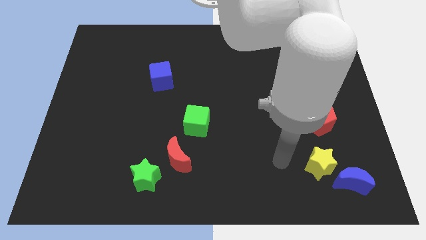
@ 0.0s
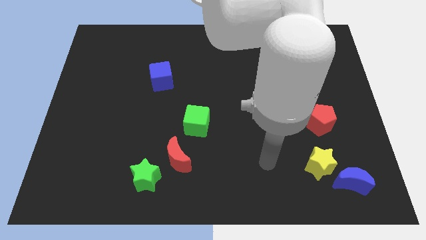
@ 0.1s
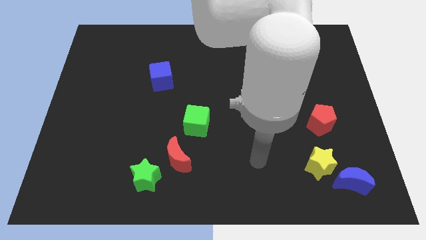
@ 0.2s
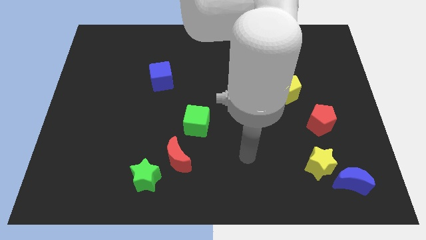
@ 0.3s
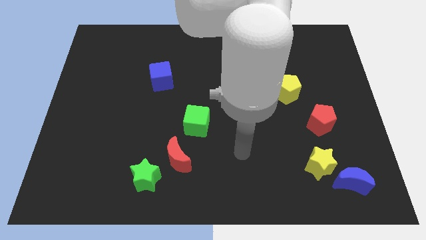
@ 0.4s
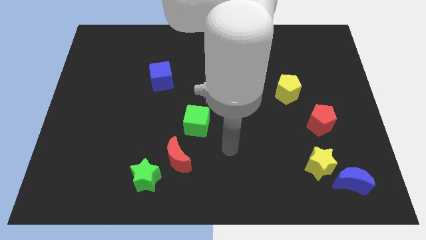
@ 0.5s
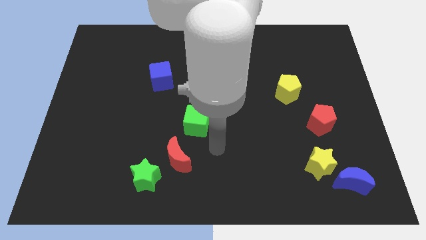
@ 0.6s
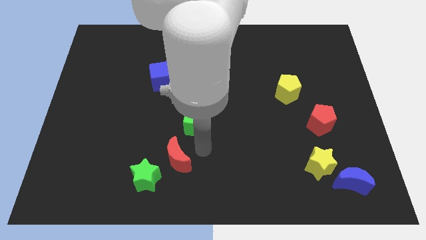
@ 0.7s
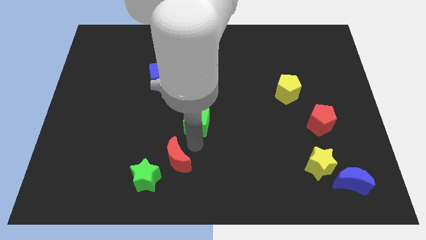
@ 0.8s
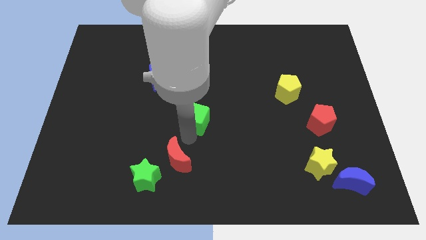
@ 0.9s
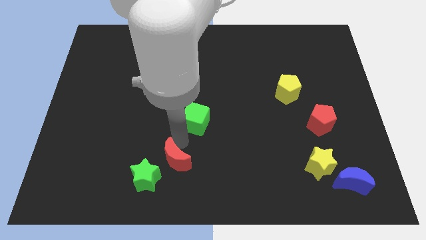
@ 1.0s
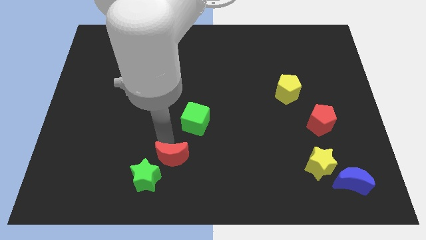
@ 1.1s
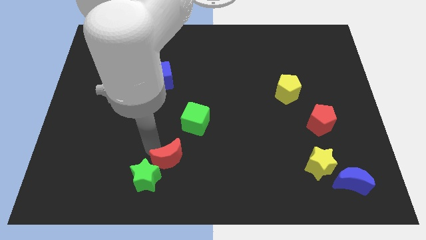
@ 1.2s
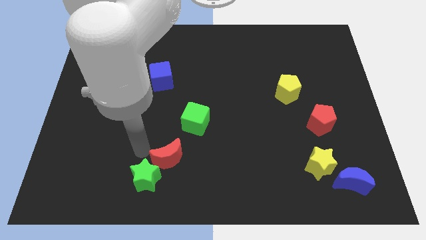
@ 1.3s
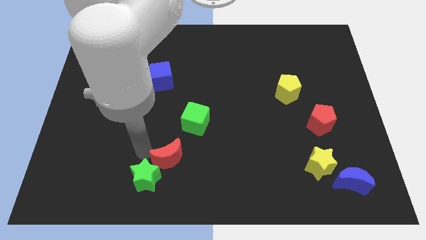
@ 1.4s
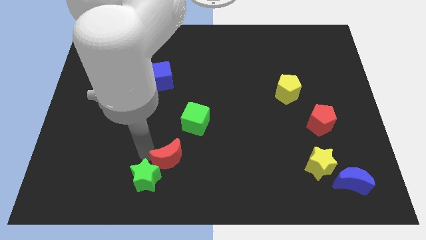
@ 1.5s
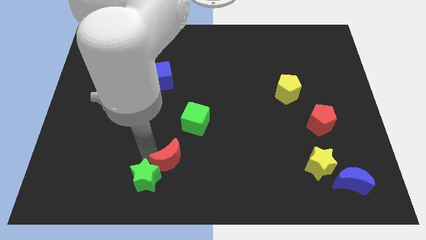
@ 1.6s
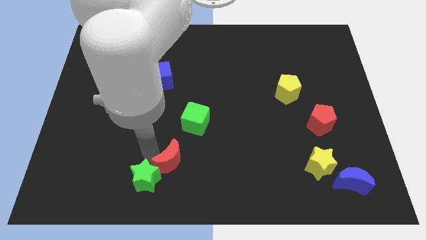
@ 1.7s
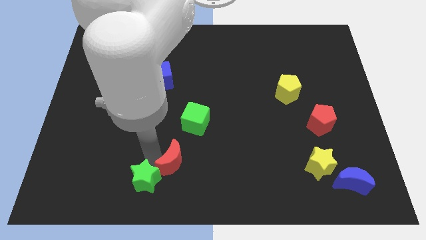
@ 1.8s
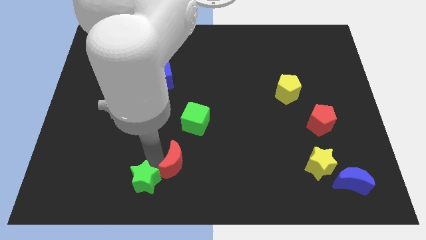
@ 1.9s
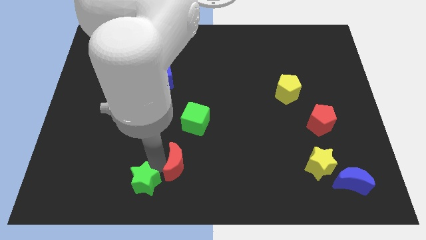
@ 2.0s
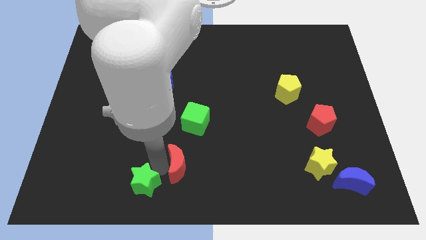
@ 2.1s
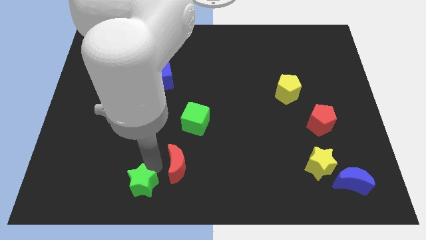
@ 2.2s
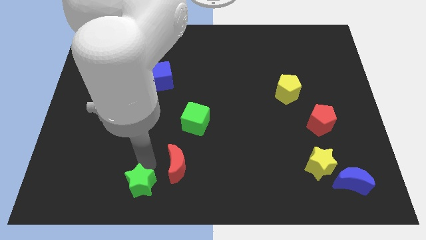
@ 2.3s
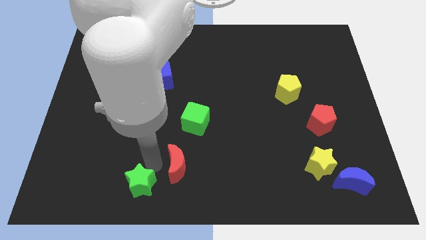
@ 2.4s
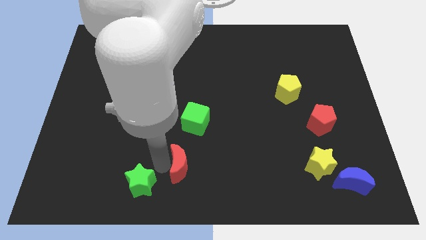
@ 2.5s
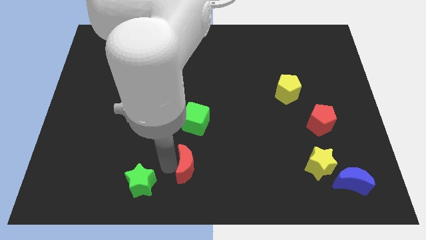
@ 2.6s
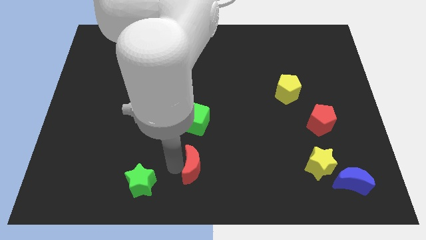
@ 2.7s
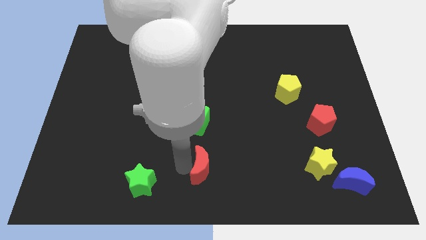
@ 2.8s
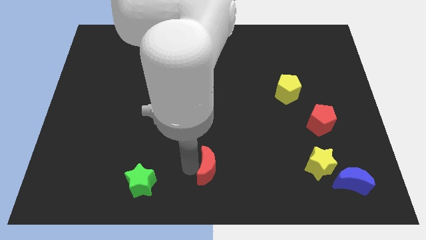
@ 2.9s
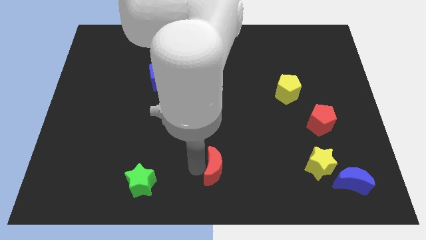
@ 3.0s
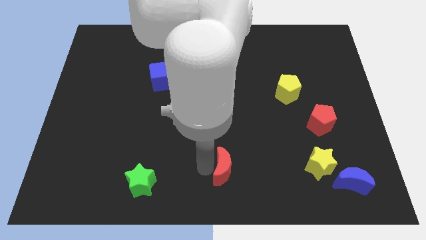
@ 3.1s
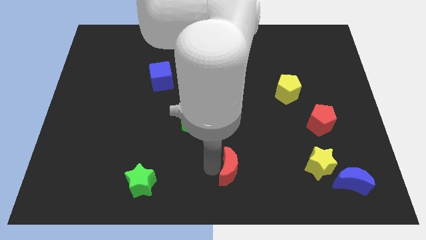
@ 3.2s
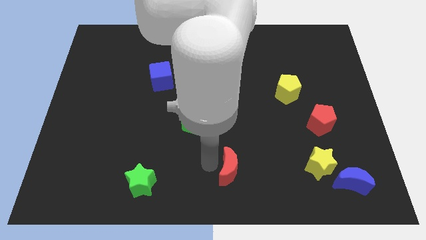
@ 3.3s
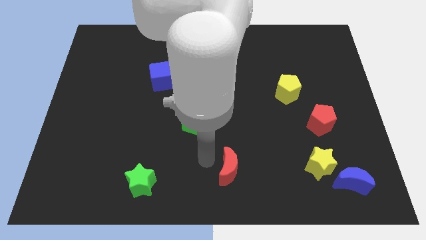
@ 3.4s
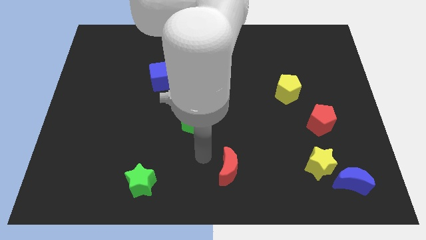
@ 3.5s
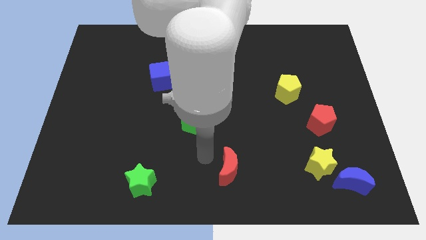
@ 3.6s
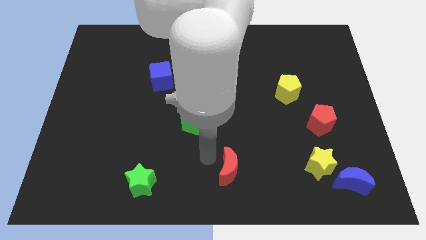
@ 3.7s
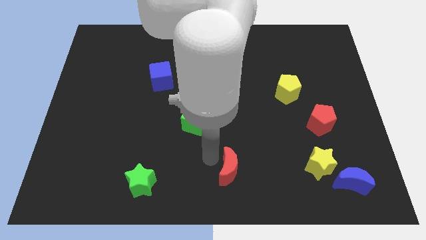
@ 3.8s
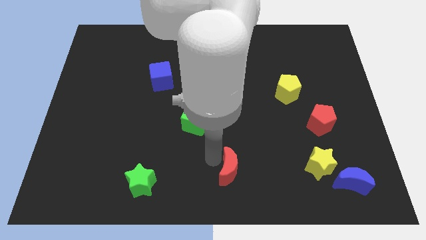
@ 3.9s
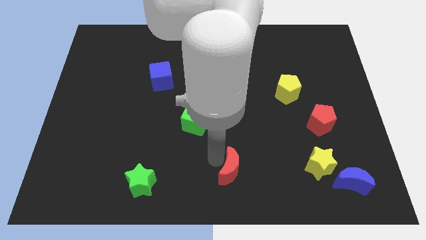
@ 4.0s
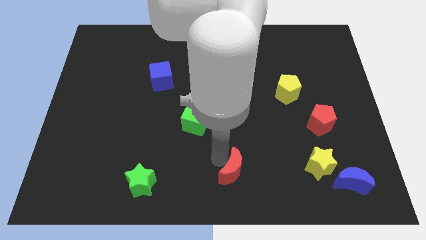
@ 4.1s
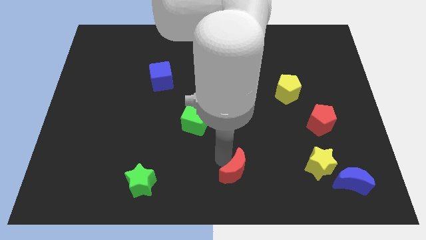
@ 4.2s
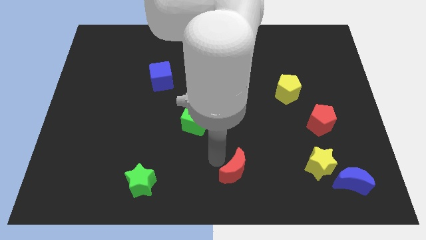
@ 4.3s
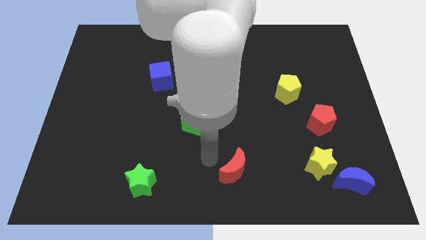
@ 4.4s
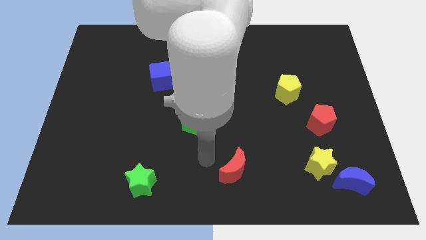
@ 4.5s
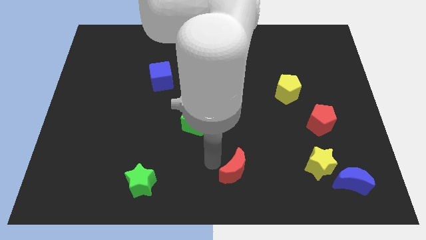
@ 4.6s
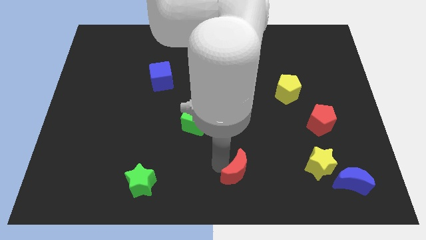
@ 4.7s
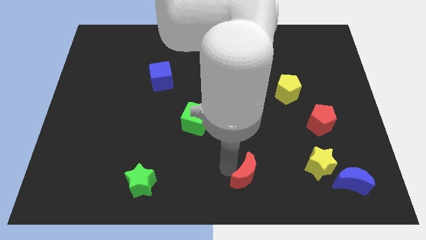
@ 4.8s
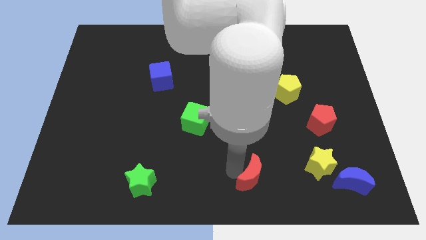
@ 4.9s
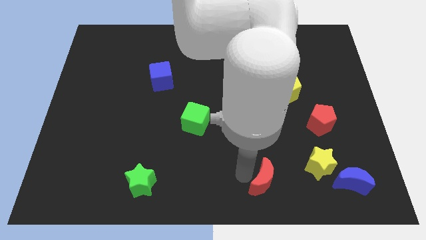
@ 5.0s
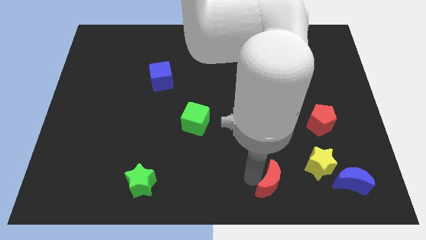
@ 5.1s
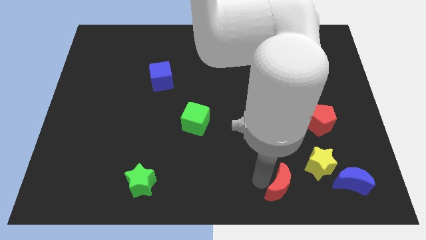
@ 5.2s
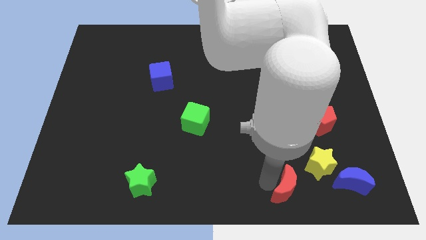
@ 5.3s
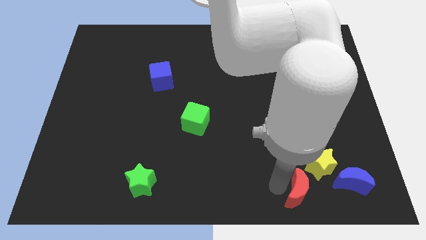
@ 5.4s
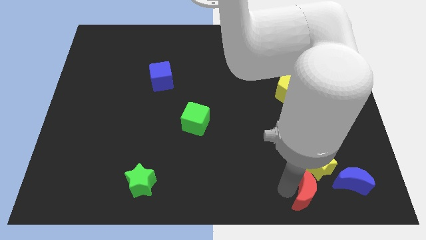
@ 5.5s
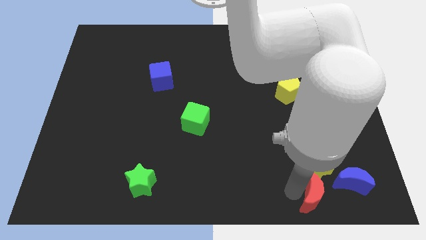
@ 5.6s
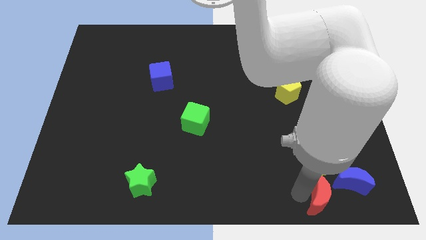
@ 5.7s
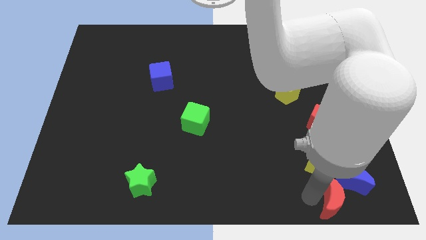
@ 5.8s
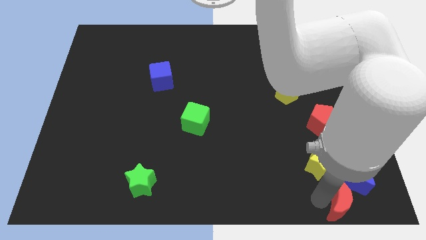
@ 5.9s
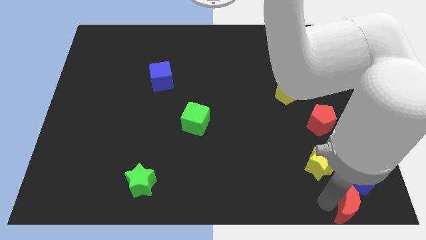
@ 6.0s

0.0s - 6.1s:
put the red moon to the bottom right

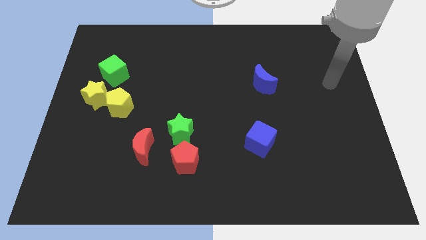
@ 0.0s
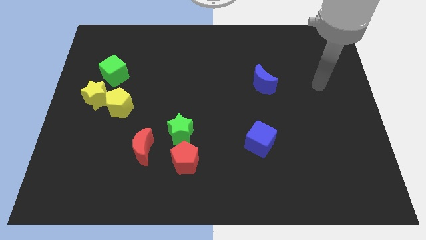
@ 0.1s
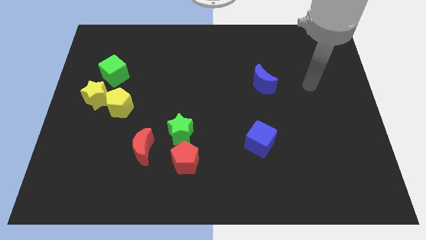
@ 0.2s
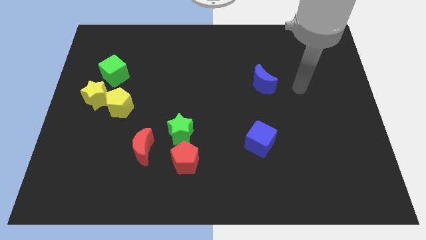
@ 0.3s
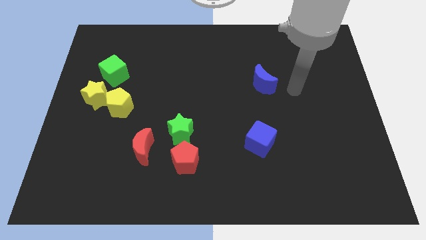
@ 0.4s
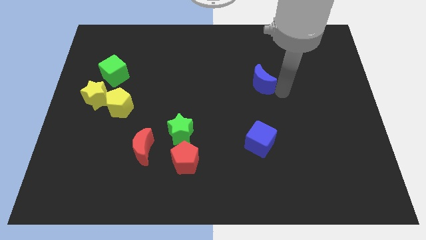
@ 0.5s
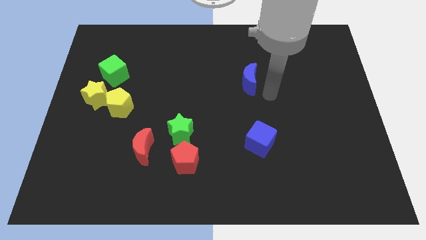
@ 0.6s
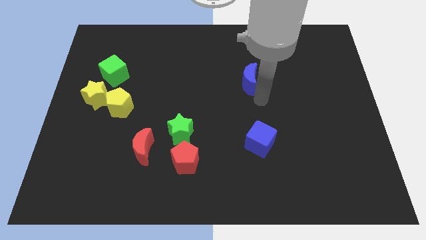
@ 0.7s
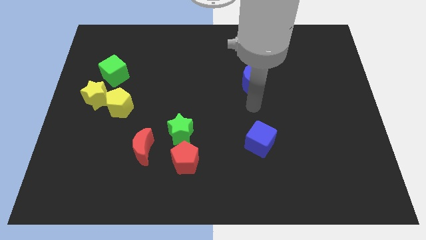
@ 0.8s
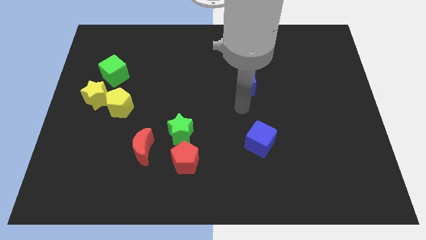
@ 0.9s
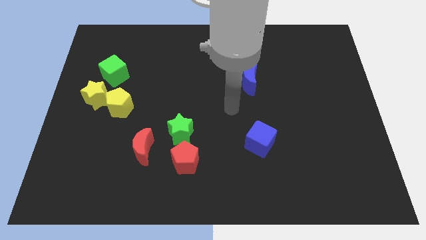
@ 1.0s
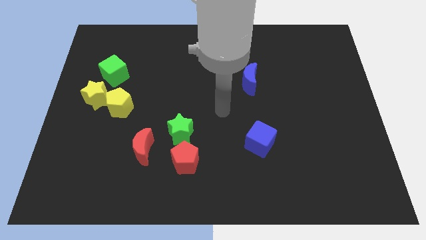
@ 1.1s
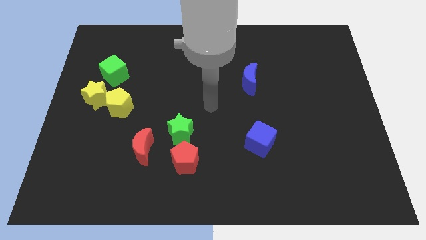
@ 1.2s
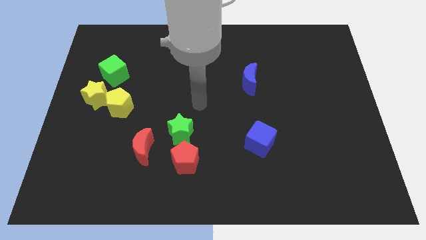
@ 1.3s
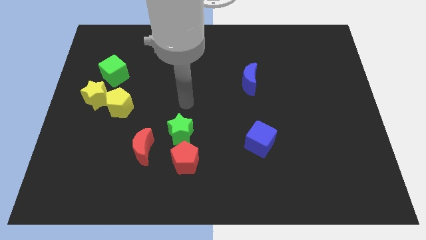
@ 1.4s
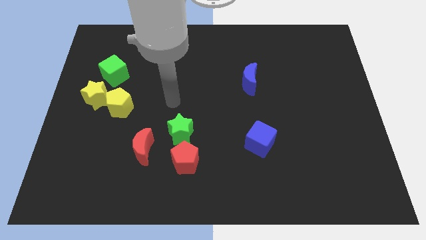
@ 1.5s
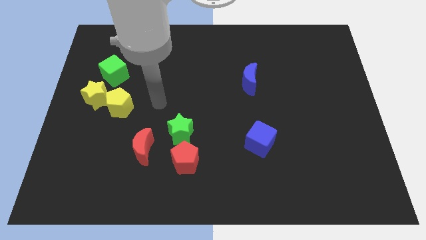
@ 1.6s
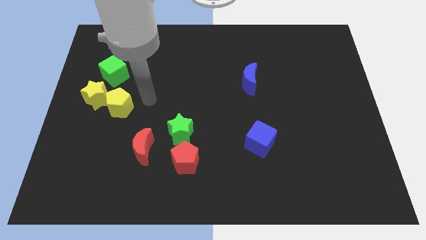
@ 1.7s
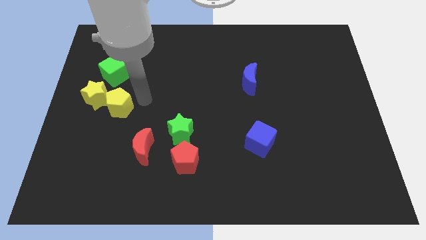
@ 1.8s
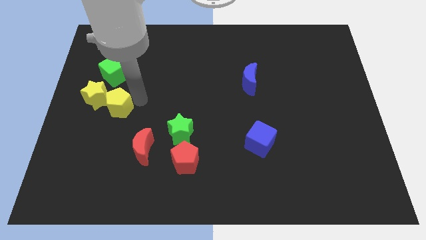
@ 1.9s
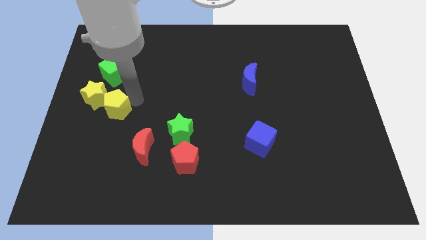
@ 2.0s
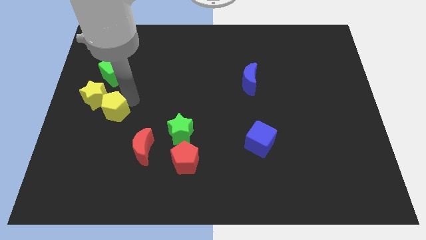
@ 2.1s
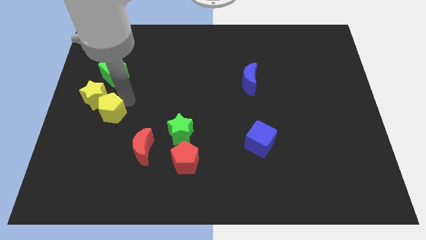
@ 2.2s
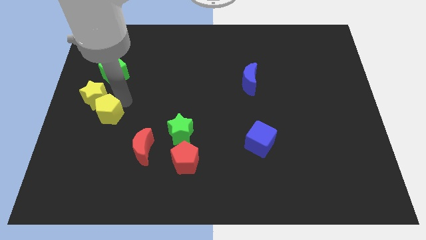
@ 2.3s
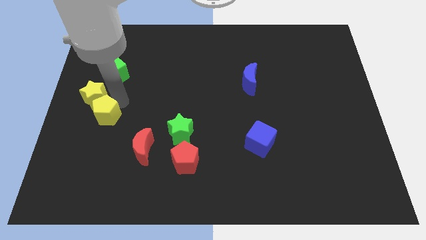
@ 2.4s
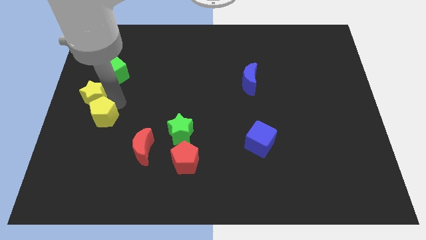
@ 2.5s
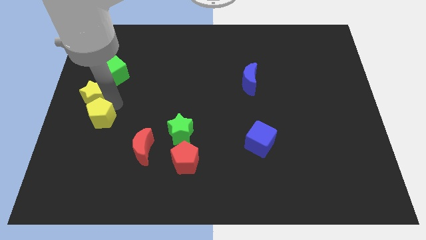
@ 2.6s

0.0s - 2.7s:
put the yellow pentagon to the center left
